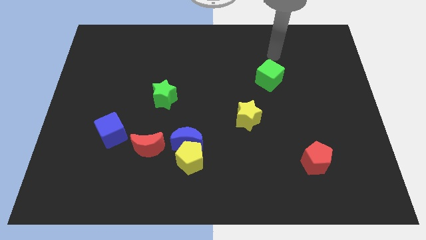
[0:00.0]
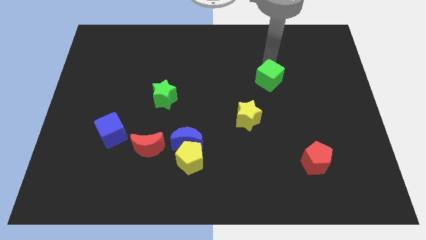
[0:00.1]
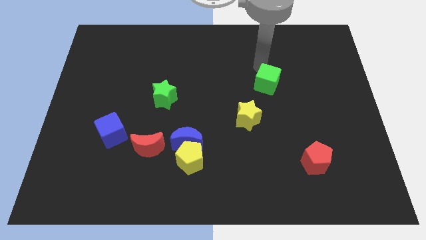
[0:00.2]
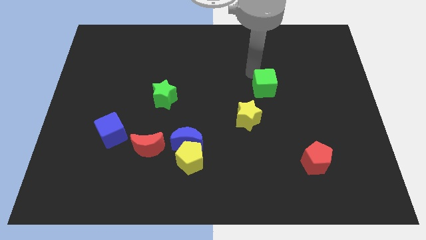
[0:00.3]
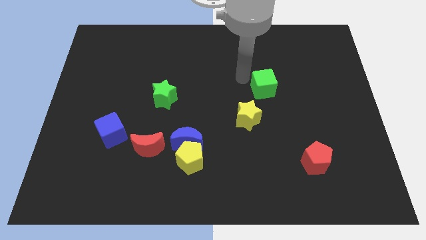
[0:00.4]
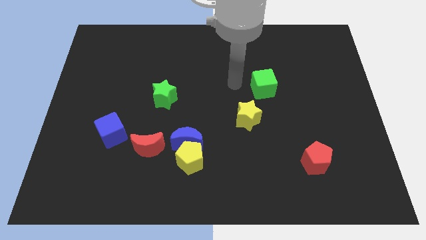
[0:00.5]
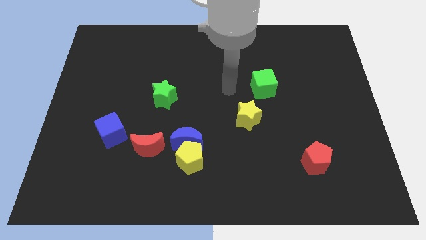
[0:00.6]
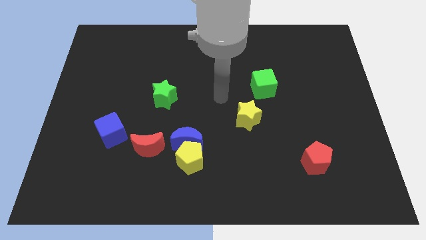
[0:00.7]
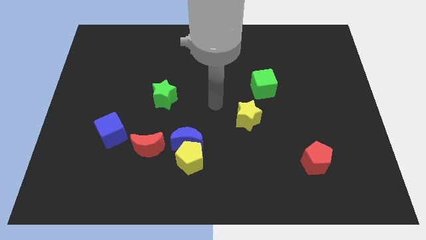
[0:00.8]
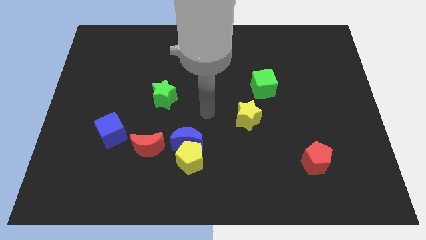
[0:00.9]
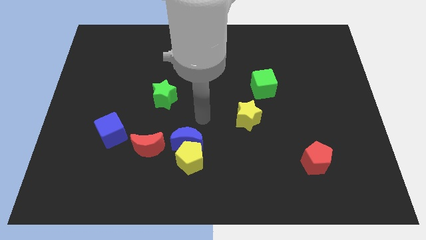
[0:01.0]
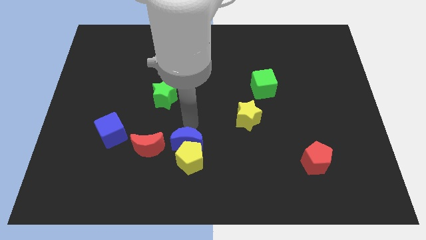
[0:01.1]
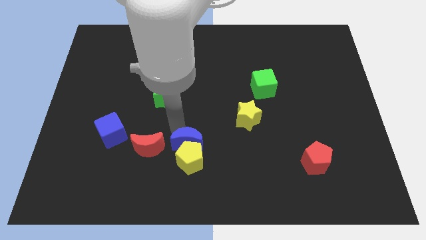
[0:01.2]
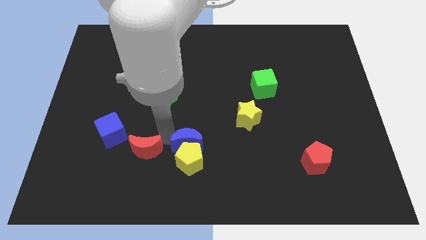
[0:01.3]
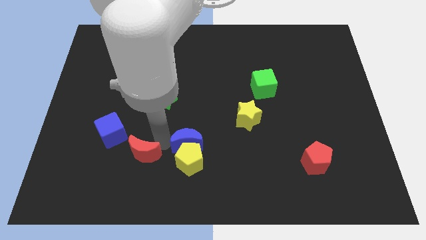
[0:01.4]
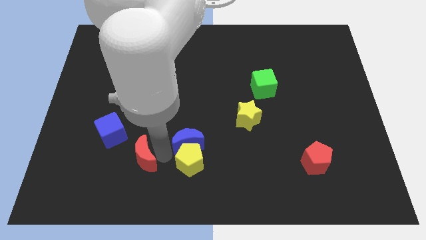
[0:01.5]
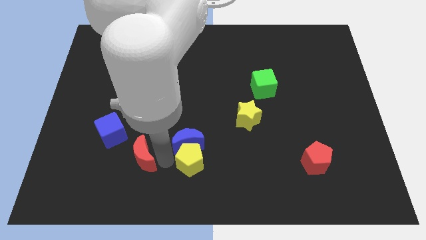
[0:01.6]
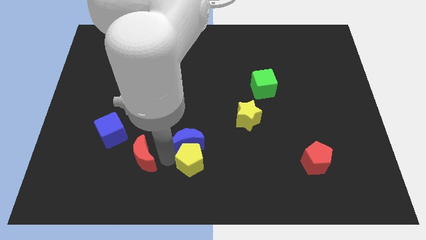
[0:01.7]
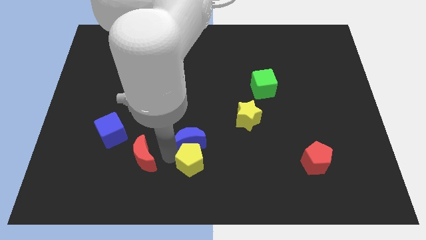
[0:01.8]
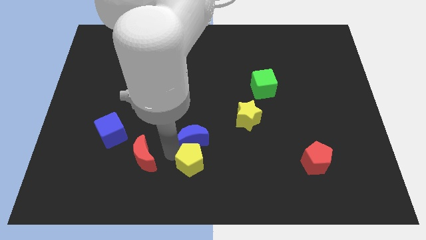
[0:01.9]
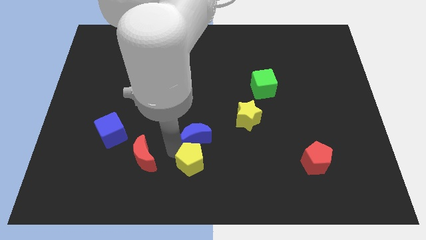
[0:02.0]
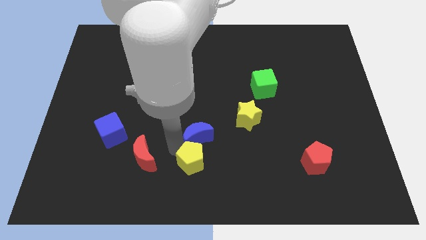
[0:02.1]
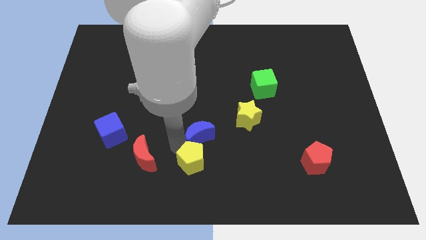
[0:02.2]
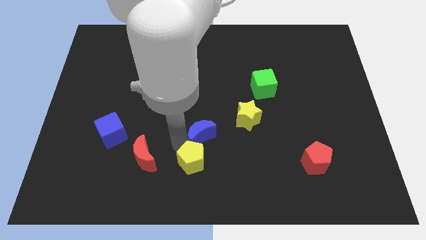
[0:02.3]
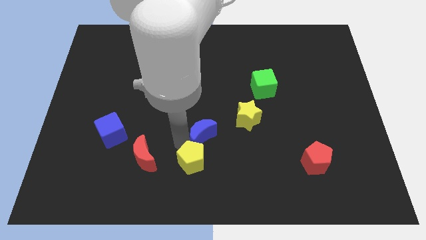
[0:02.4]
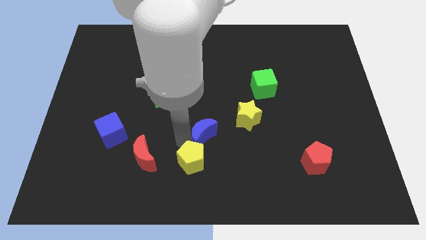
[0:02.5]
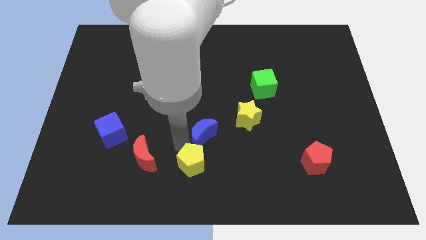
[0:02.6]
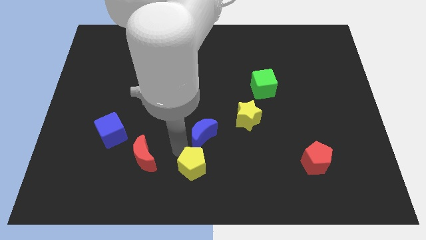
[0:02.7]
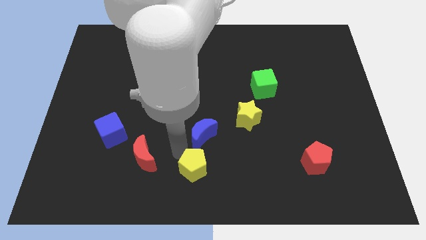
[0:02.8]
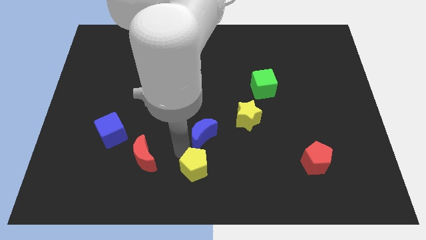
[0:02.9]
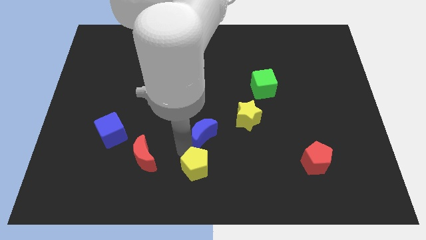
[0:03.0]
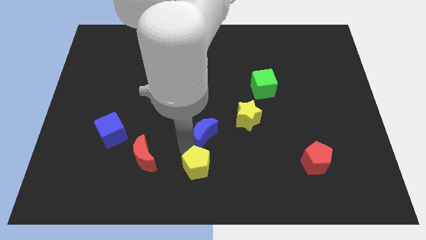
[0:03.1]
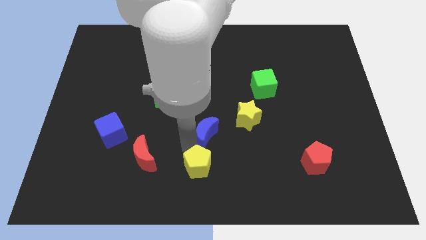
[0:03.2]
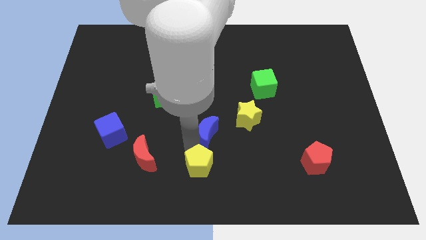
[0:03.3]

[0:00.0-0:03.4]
move the blue moon away from the yellow pentagon and red moon

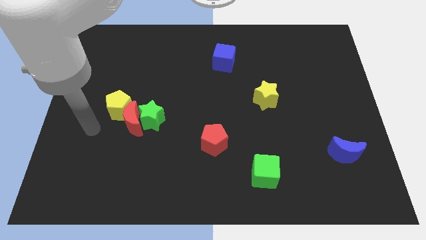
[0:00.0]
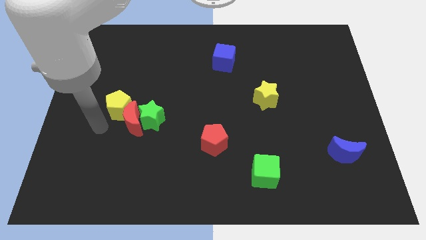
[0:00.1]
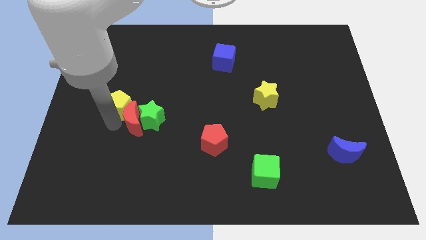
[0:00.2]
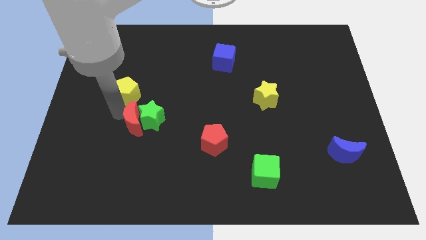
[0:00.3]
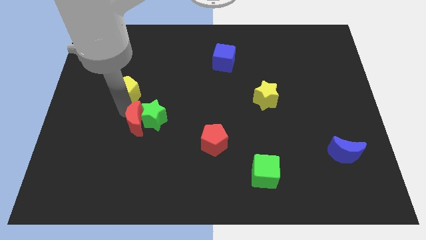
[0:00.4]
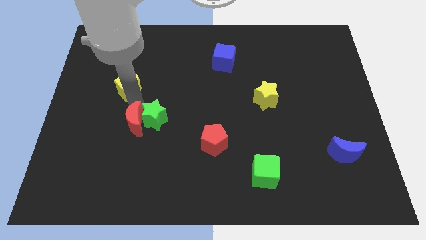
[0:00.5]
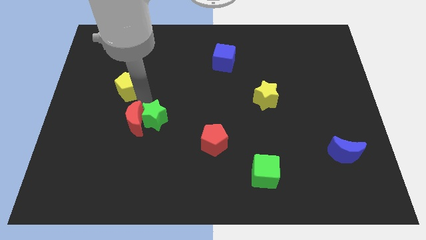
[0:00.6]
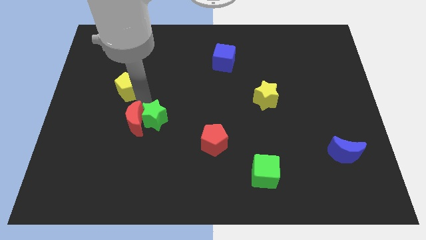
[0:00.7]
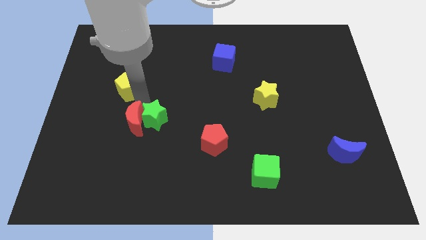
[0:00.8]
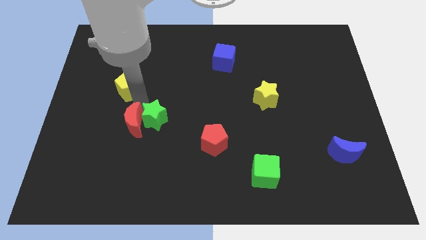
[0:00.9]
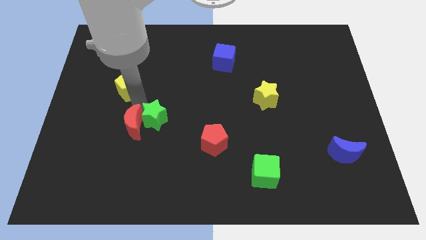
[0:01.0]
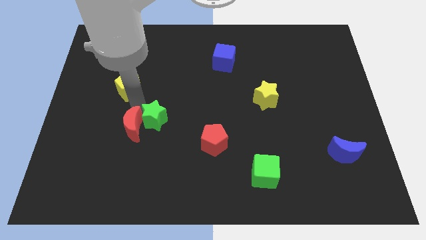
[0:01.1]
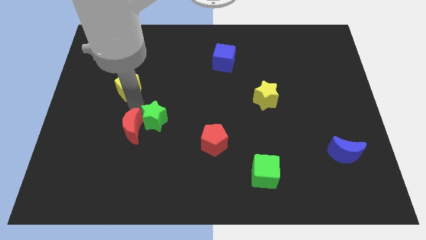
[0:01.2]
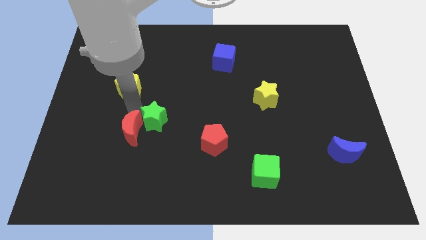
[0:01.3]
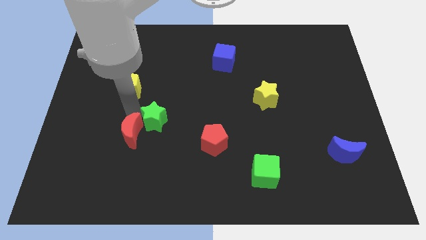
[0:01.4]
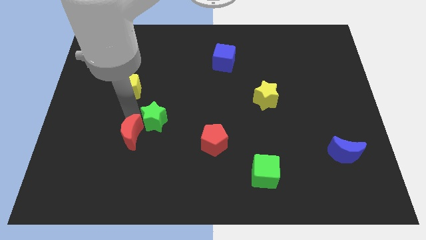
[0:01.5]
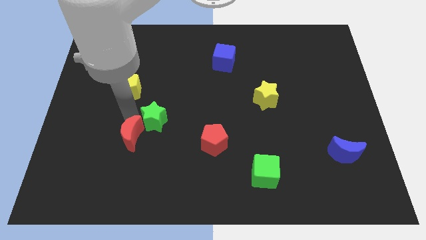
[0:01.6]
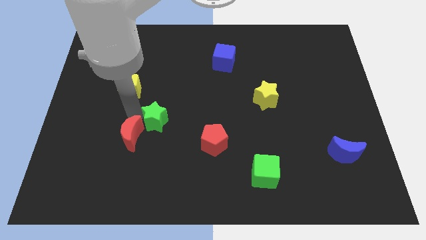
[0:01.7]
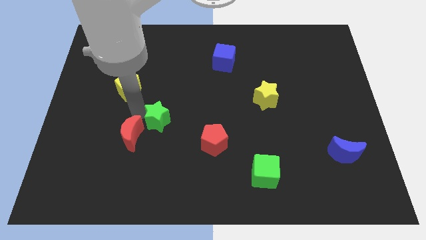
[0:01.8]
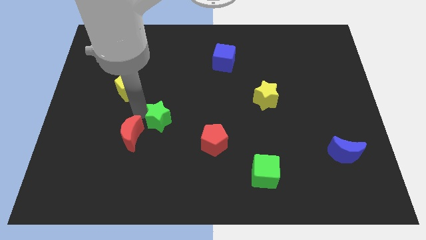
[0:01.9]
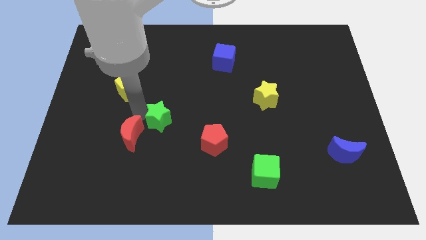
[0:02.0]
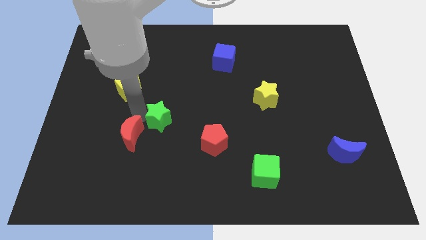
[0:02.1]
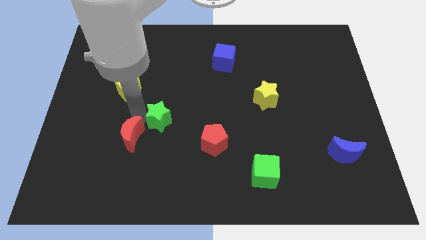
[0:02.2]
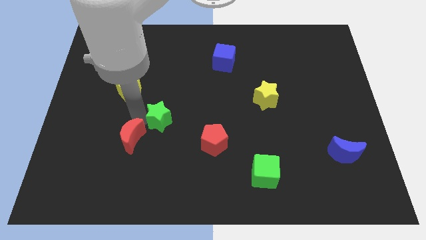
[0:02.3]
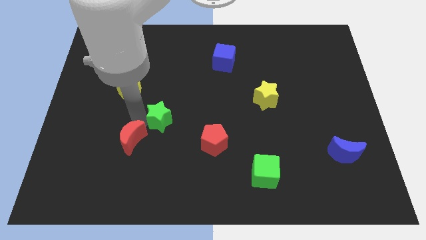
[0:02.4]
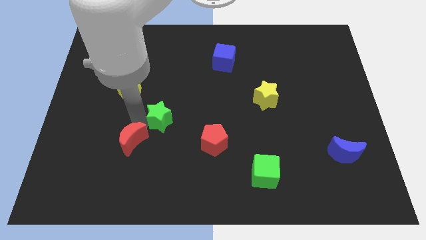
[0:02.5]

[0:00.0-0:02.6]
pull the red moon apart from the green star and yellow pentagon

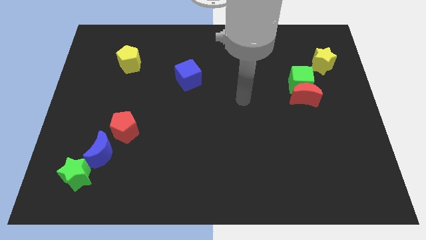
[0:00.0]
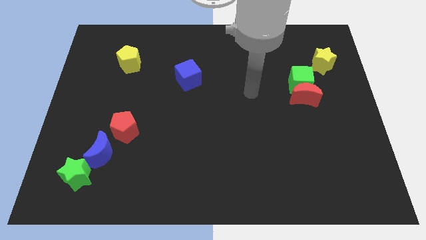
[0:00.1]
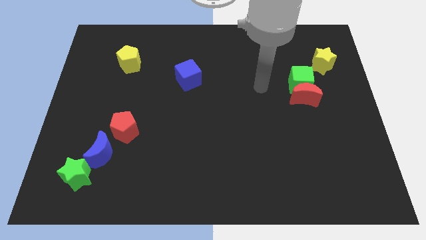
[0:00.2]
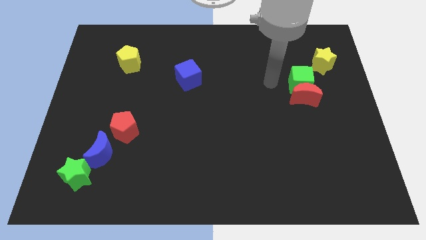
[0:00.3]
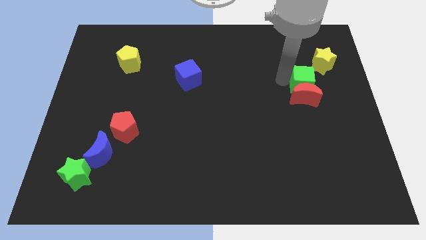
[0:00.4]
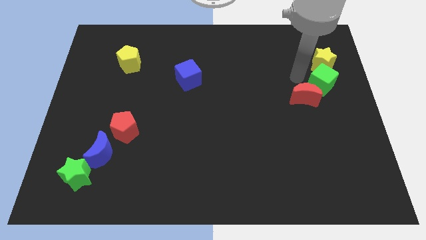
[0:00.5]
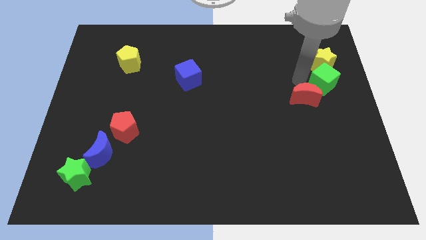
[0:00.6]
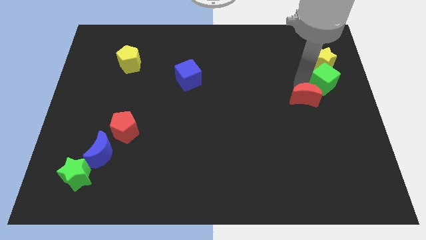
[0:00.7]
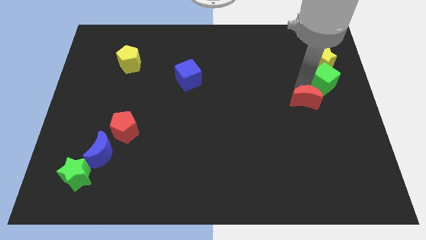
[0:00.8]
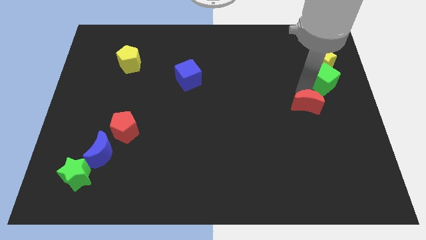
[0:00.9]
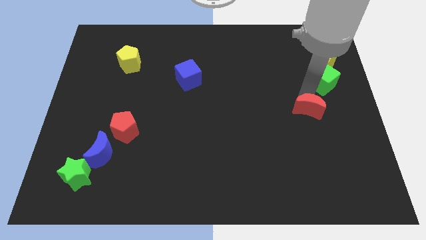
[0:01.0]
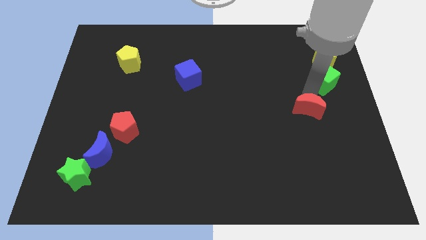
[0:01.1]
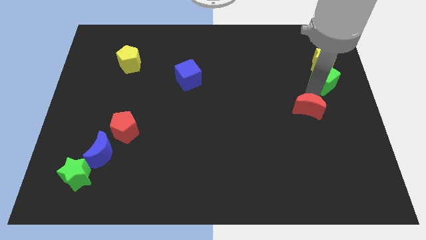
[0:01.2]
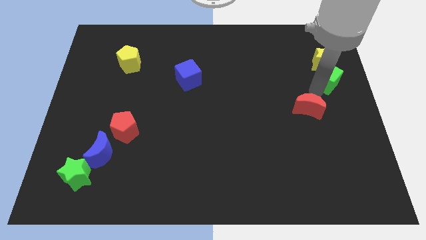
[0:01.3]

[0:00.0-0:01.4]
pull the red moon apart from the green cube

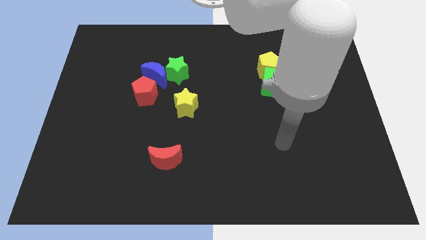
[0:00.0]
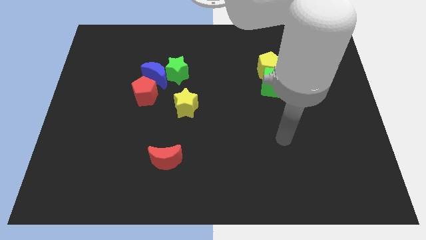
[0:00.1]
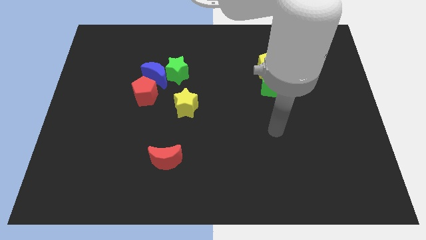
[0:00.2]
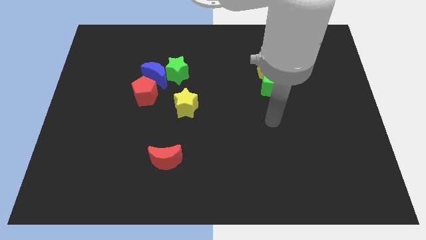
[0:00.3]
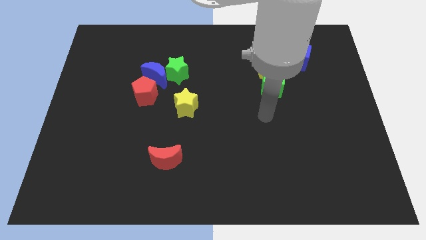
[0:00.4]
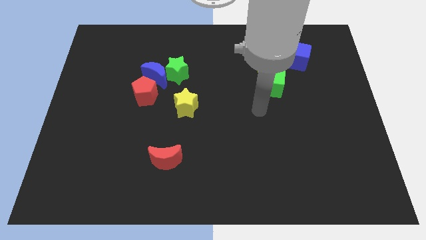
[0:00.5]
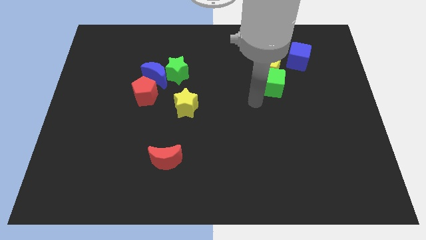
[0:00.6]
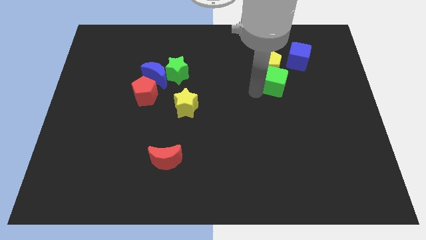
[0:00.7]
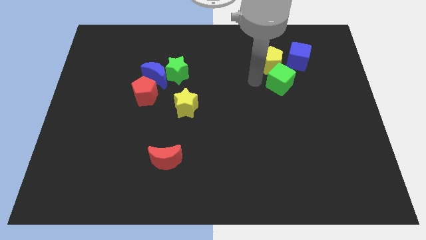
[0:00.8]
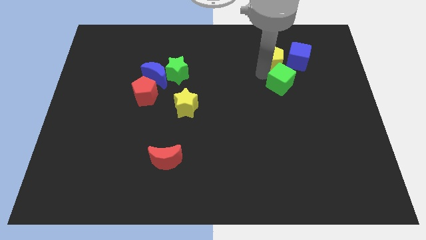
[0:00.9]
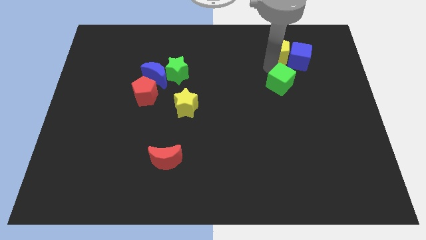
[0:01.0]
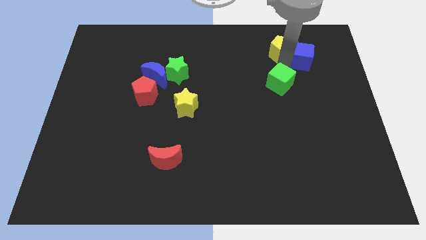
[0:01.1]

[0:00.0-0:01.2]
pull the green cube apart from the yellow pentagon

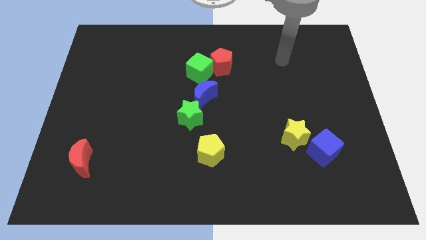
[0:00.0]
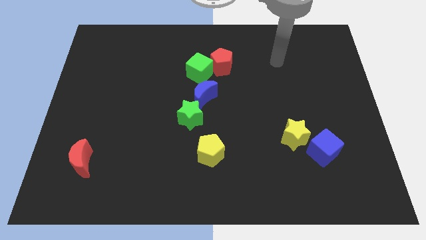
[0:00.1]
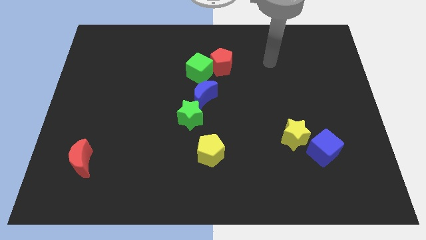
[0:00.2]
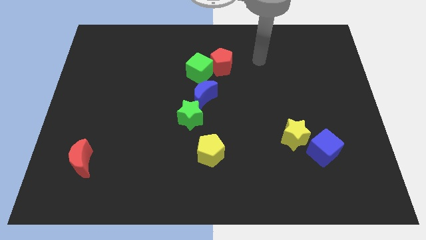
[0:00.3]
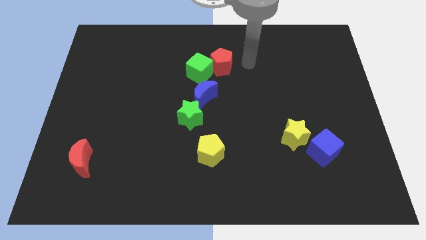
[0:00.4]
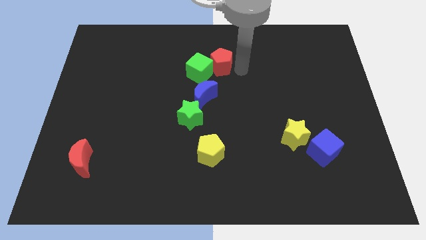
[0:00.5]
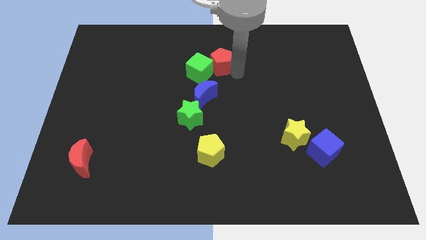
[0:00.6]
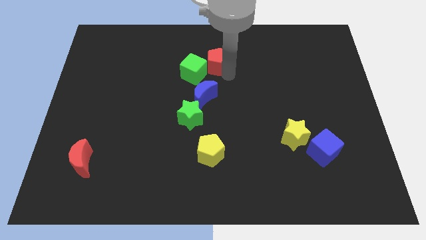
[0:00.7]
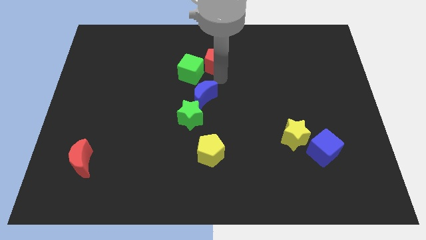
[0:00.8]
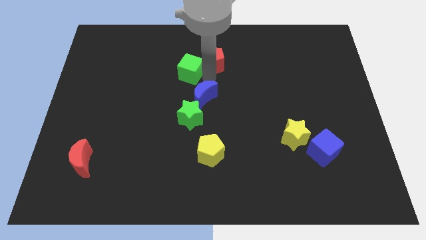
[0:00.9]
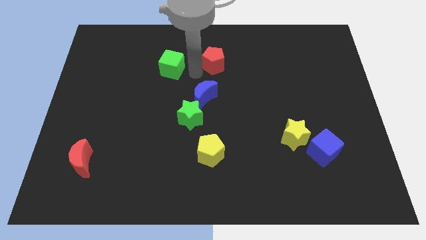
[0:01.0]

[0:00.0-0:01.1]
move the red pentagon away from the green cube
